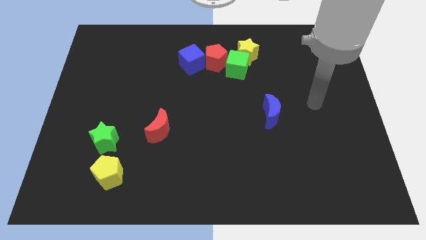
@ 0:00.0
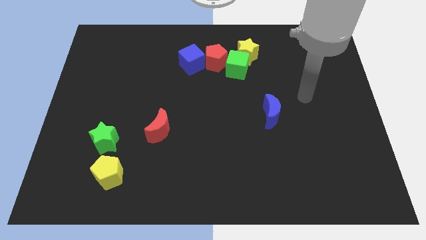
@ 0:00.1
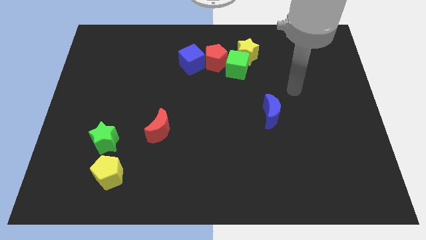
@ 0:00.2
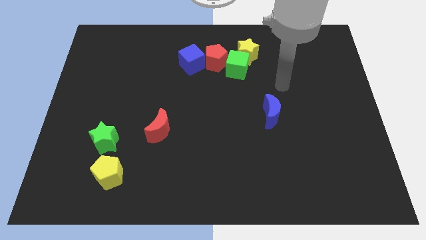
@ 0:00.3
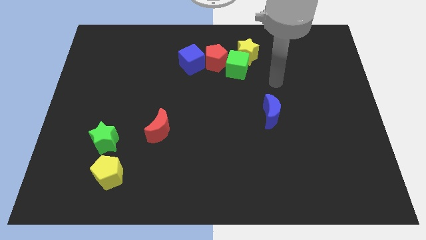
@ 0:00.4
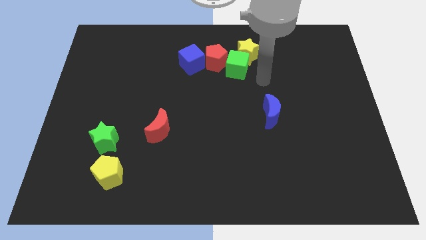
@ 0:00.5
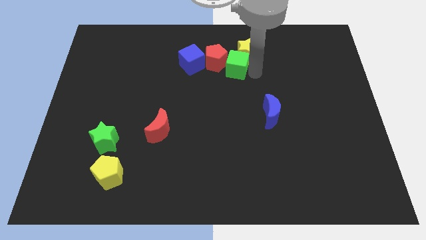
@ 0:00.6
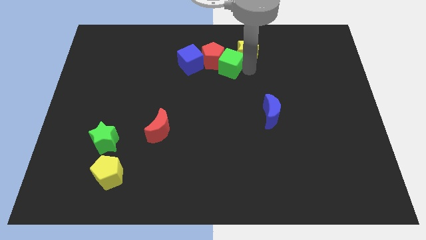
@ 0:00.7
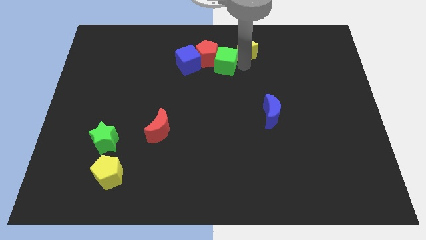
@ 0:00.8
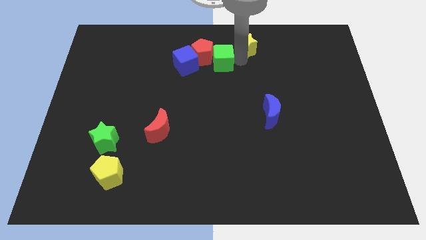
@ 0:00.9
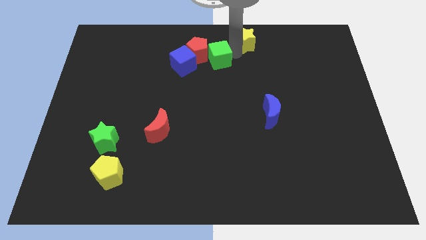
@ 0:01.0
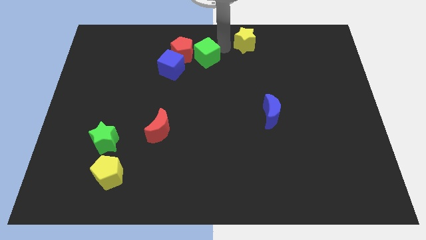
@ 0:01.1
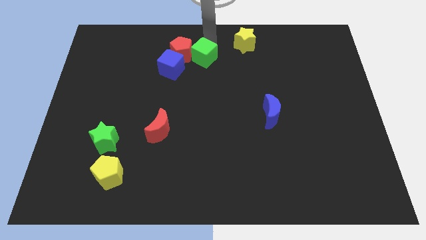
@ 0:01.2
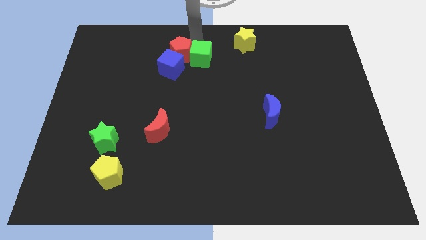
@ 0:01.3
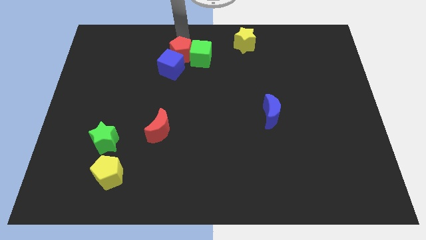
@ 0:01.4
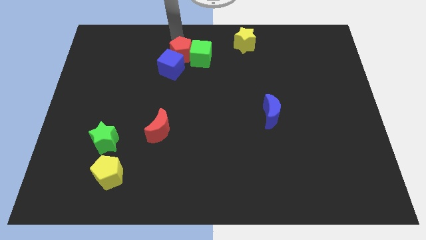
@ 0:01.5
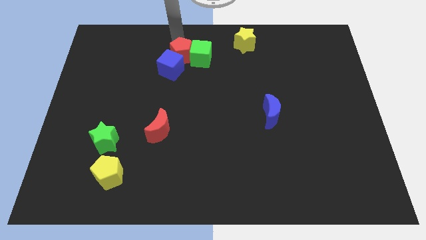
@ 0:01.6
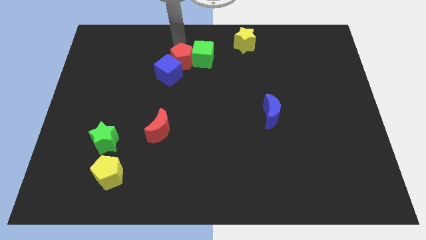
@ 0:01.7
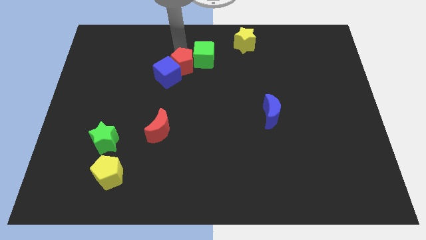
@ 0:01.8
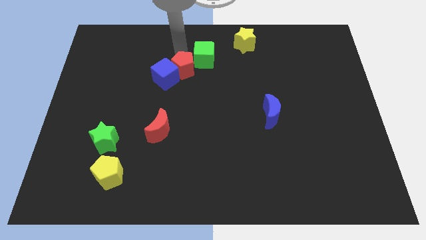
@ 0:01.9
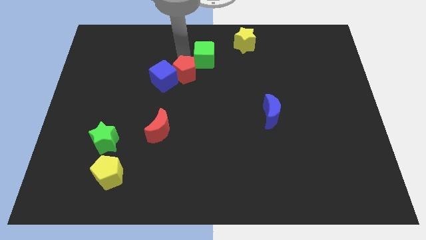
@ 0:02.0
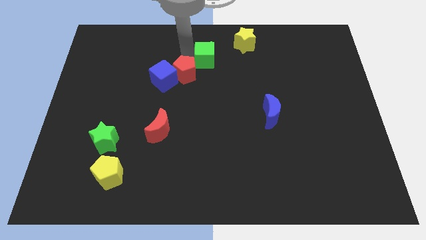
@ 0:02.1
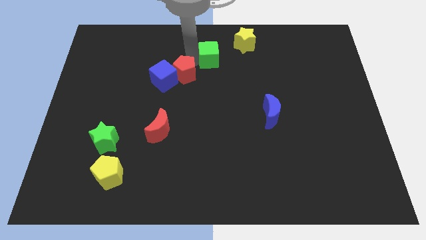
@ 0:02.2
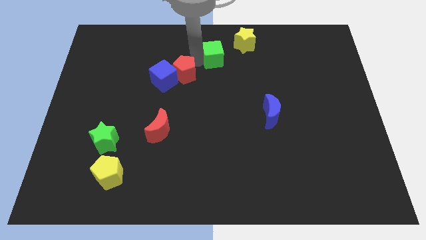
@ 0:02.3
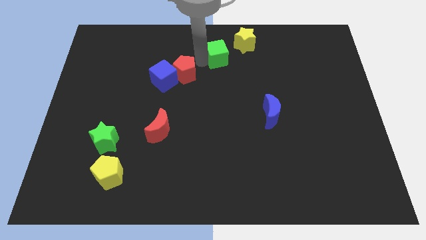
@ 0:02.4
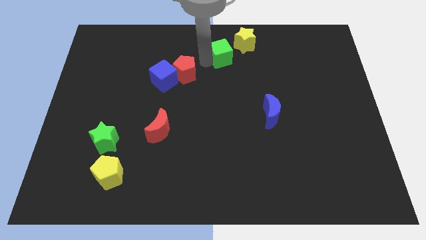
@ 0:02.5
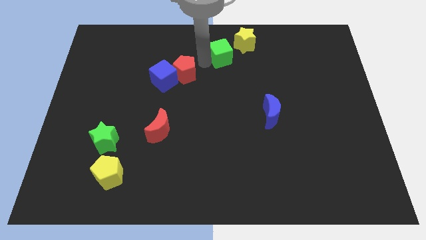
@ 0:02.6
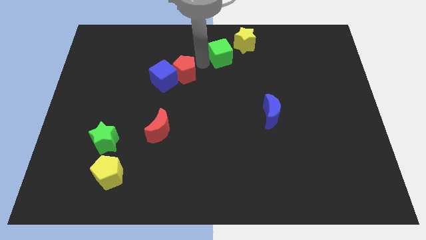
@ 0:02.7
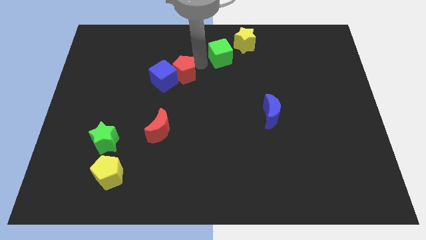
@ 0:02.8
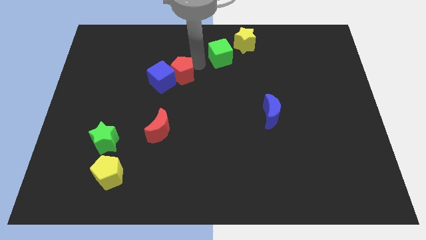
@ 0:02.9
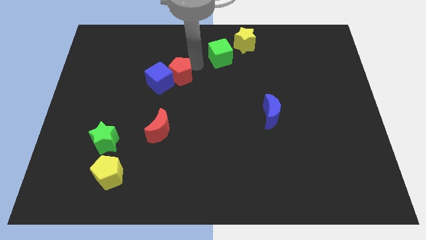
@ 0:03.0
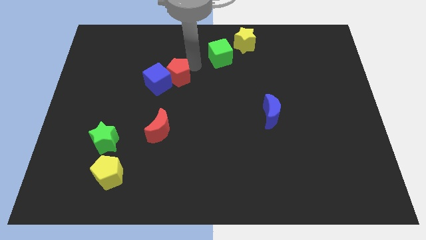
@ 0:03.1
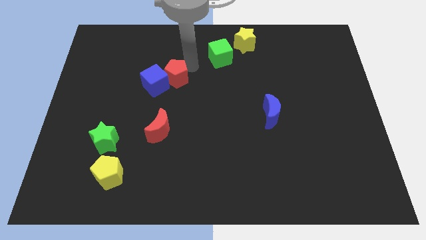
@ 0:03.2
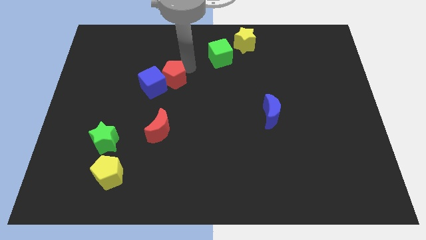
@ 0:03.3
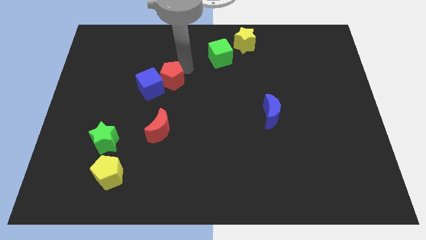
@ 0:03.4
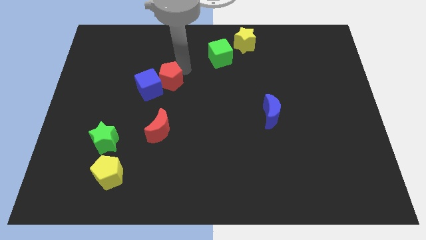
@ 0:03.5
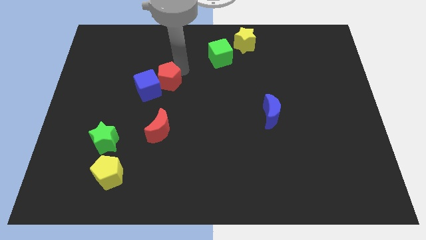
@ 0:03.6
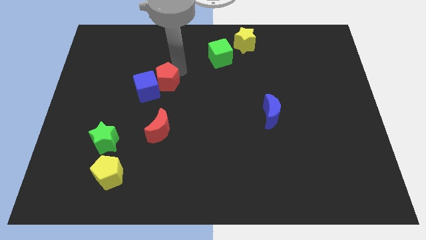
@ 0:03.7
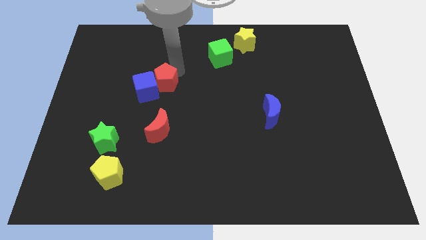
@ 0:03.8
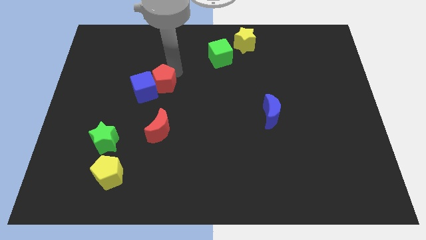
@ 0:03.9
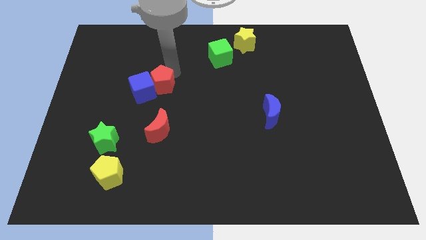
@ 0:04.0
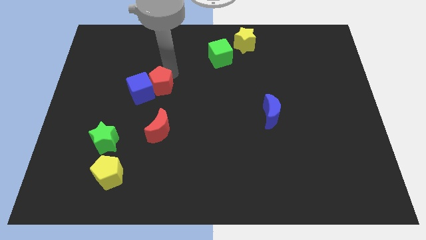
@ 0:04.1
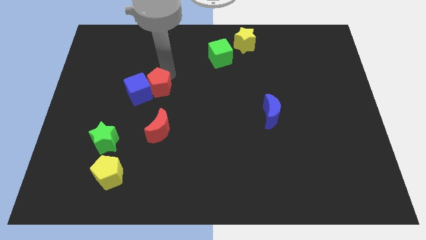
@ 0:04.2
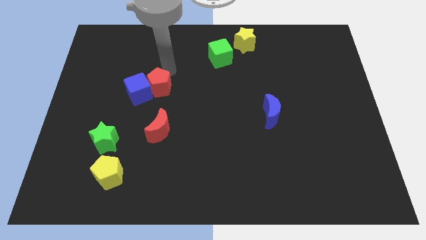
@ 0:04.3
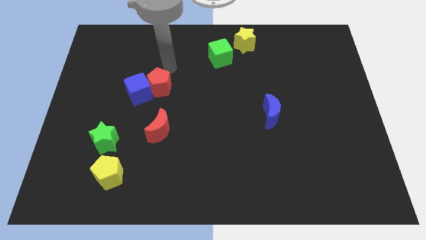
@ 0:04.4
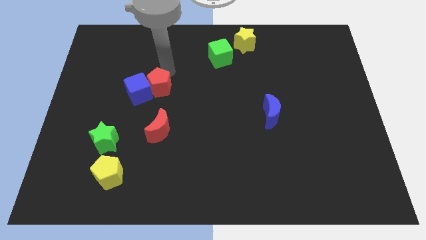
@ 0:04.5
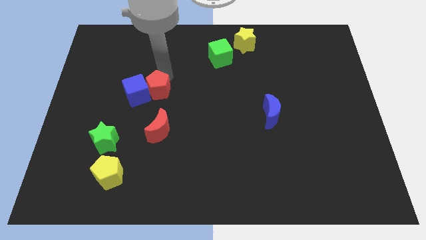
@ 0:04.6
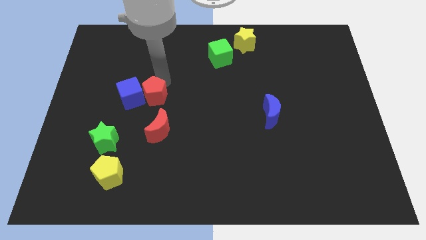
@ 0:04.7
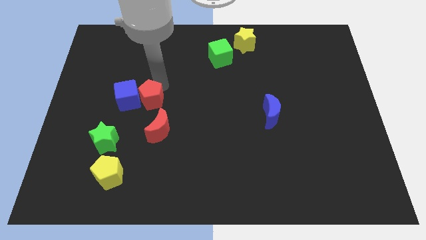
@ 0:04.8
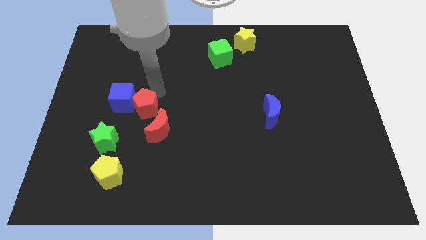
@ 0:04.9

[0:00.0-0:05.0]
push the red pentagon to the top right side of the green star

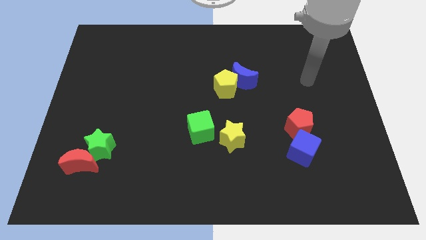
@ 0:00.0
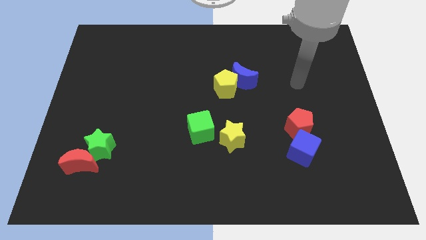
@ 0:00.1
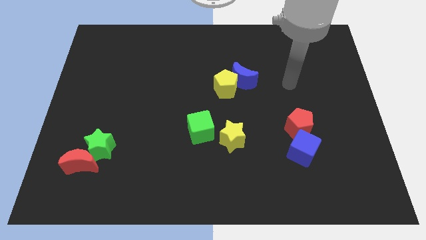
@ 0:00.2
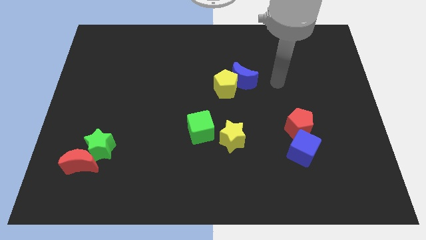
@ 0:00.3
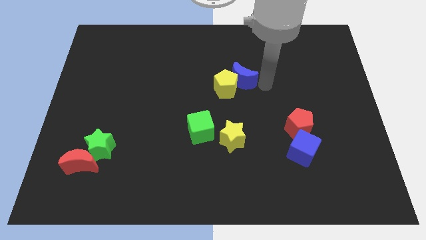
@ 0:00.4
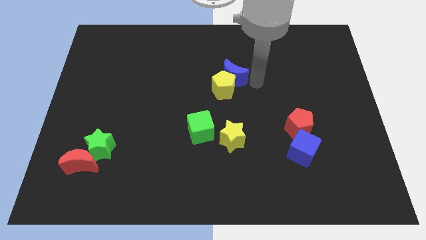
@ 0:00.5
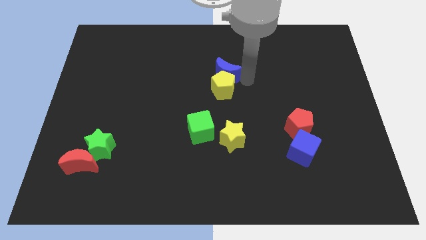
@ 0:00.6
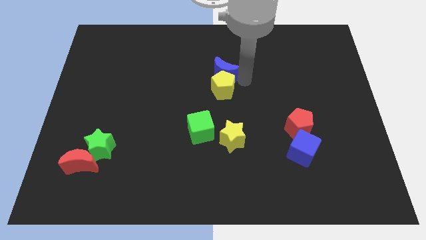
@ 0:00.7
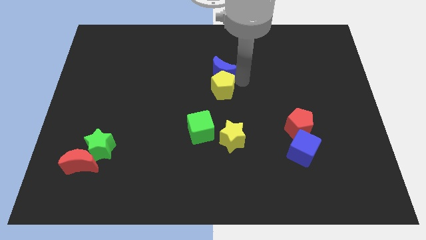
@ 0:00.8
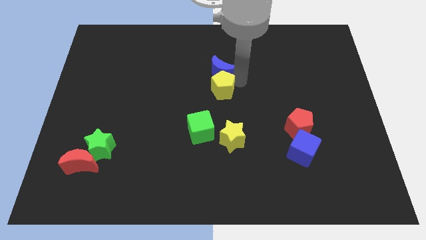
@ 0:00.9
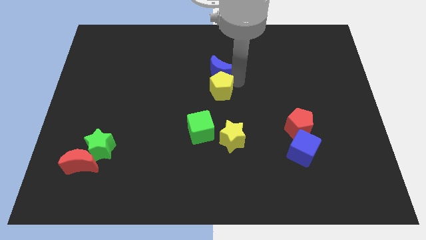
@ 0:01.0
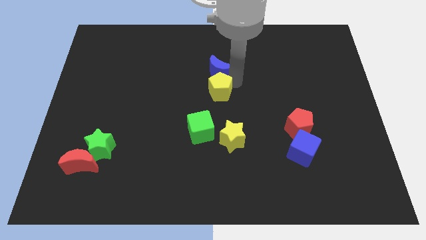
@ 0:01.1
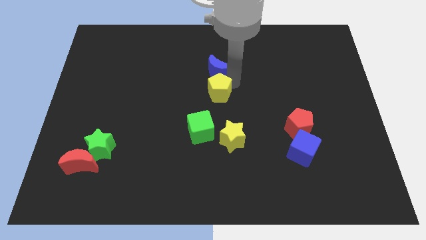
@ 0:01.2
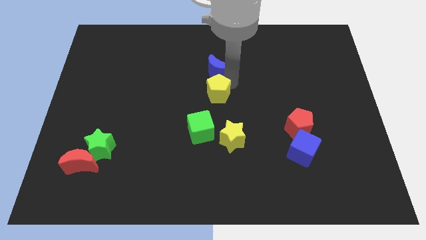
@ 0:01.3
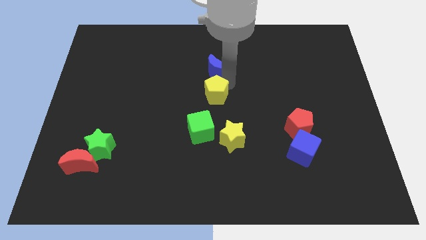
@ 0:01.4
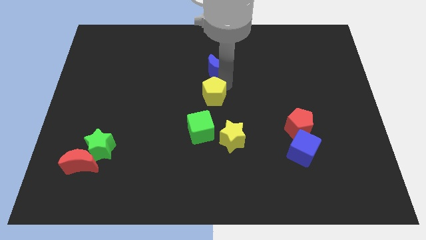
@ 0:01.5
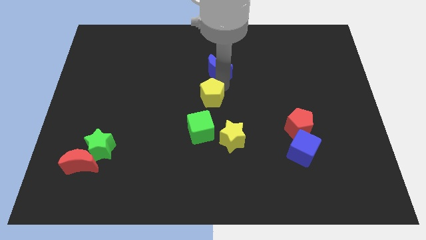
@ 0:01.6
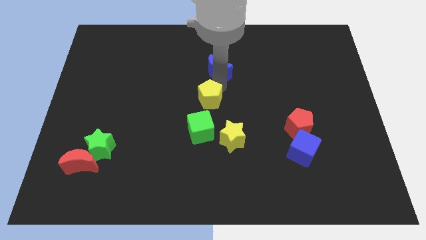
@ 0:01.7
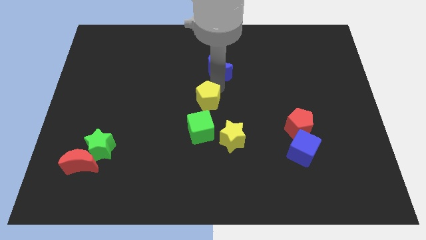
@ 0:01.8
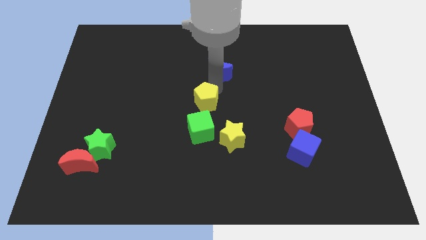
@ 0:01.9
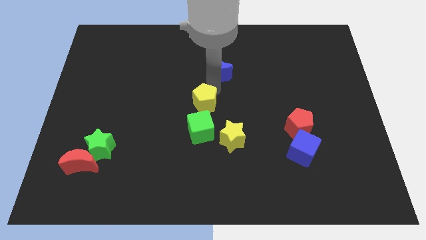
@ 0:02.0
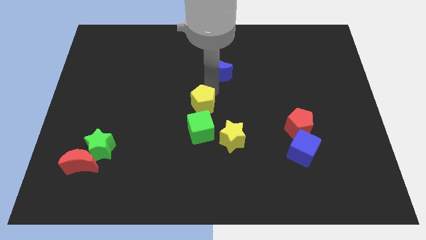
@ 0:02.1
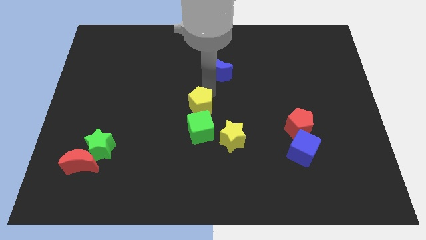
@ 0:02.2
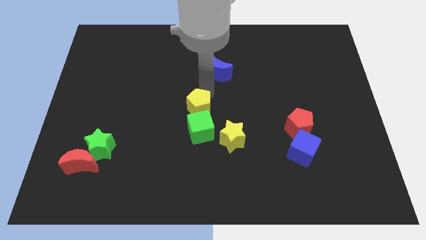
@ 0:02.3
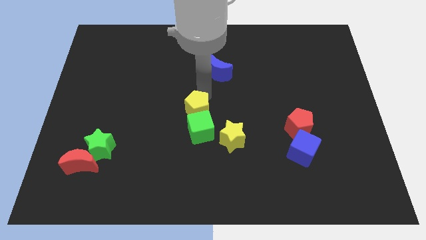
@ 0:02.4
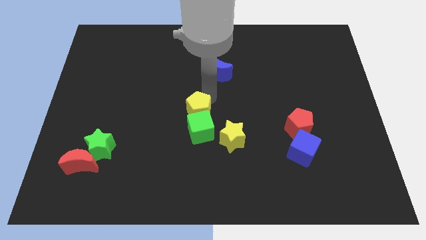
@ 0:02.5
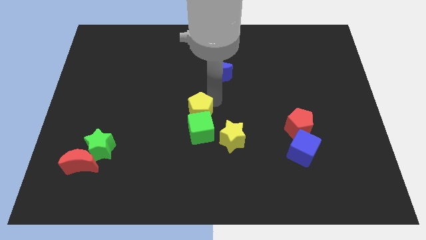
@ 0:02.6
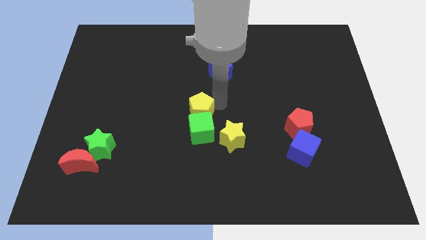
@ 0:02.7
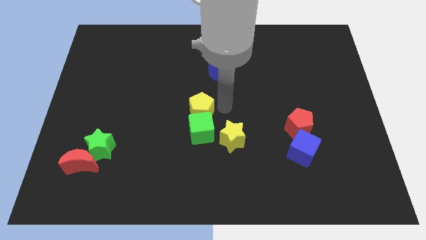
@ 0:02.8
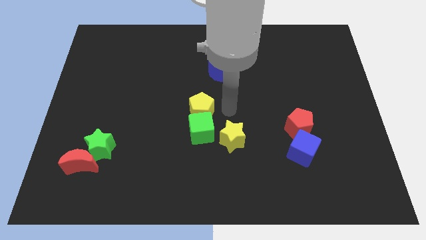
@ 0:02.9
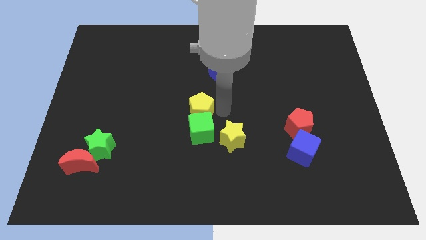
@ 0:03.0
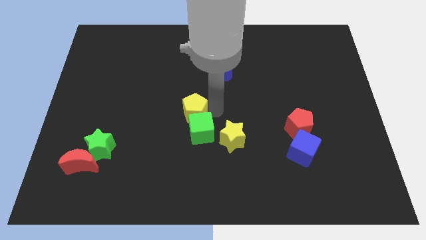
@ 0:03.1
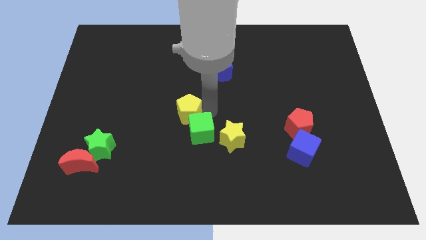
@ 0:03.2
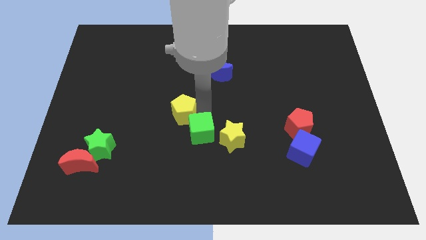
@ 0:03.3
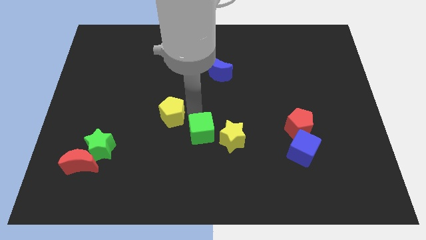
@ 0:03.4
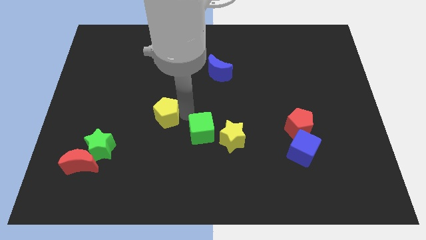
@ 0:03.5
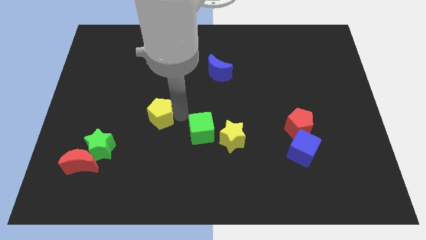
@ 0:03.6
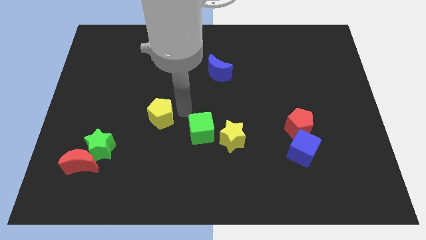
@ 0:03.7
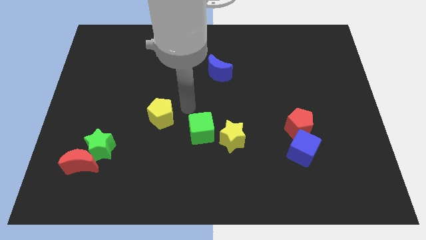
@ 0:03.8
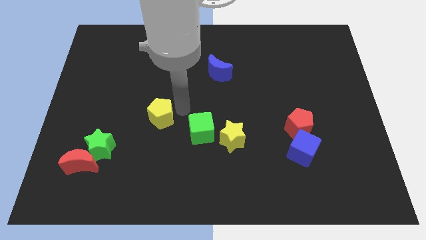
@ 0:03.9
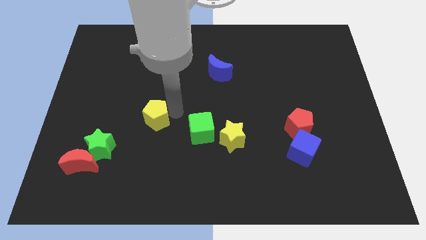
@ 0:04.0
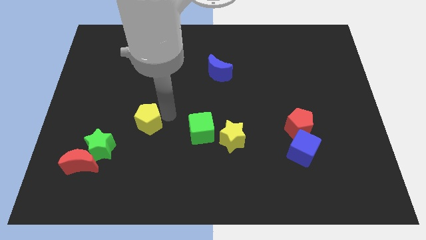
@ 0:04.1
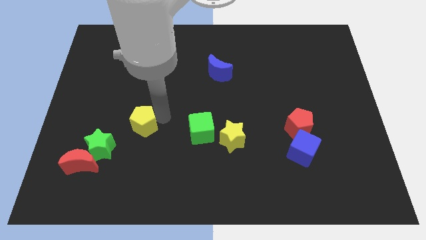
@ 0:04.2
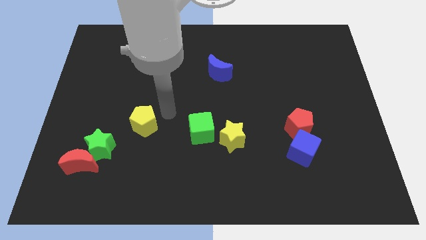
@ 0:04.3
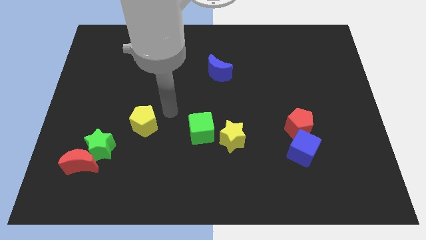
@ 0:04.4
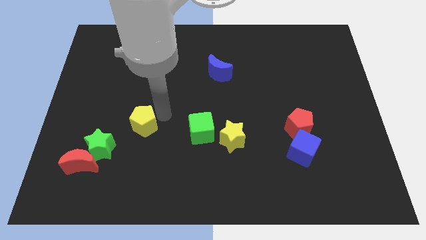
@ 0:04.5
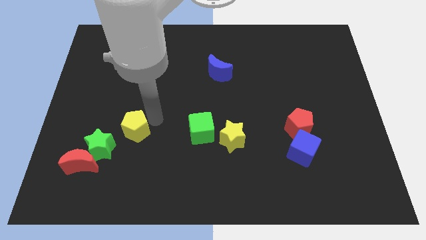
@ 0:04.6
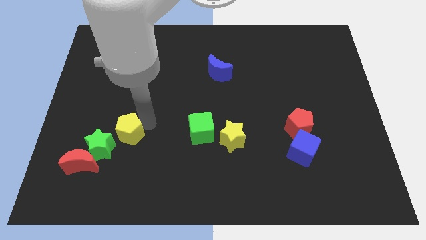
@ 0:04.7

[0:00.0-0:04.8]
move the yellow pentagon to the top right side of the red moon
